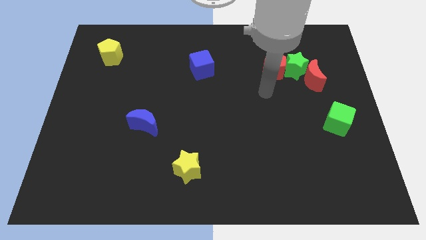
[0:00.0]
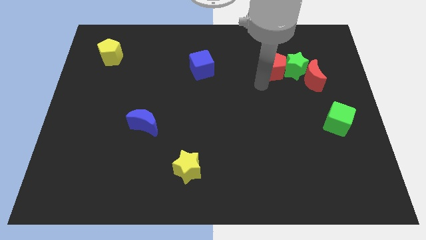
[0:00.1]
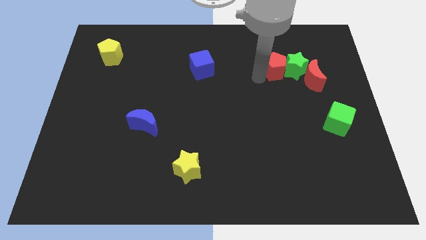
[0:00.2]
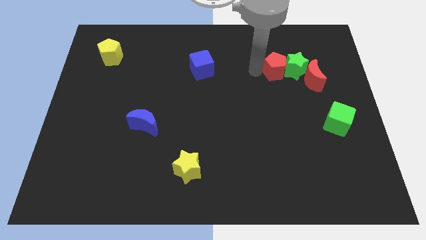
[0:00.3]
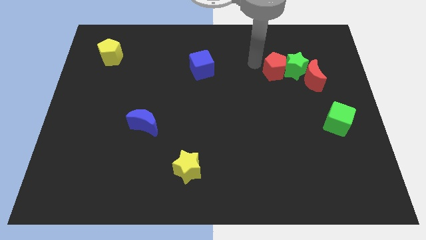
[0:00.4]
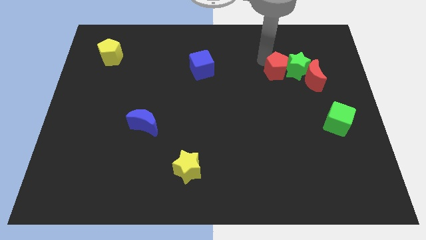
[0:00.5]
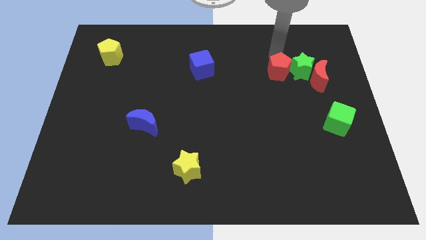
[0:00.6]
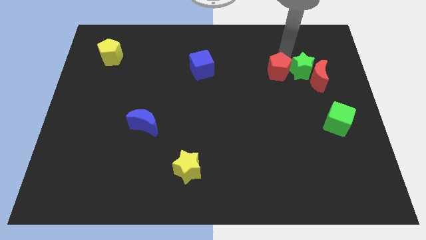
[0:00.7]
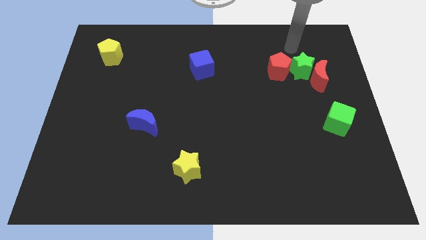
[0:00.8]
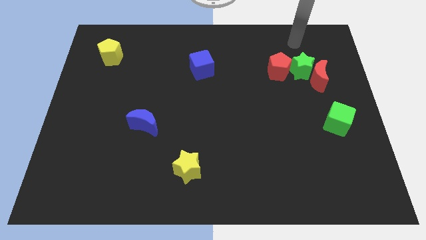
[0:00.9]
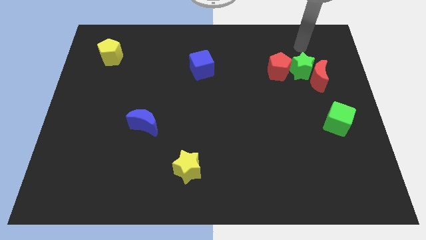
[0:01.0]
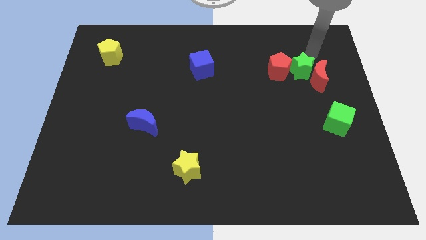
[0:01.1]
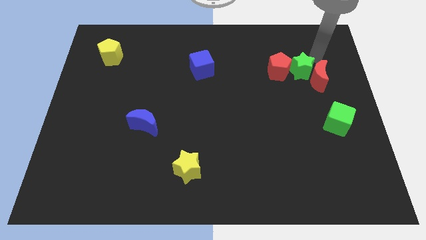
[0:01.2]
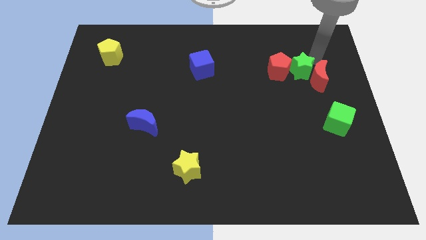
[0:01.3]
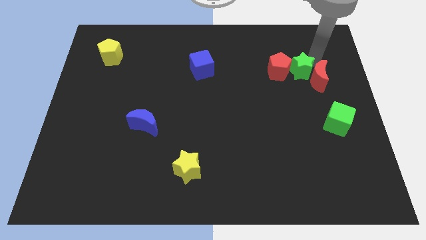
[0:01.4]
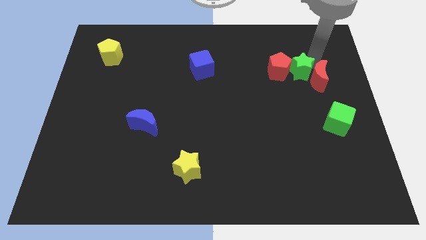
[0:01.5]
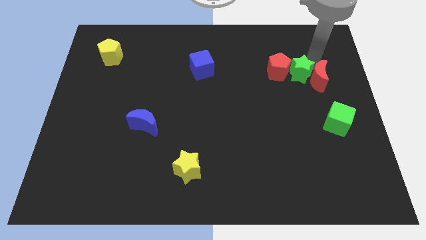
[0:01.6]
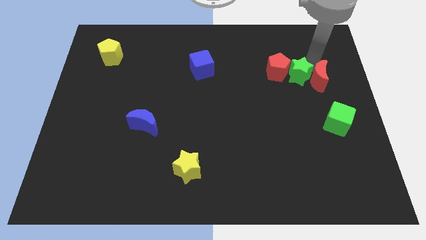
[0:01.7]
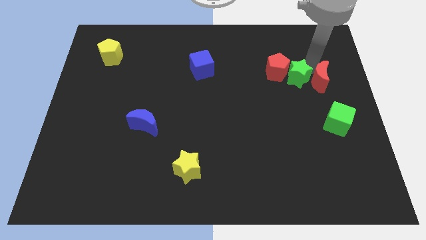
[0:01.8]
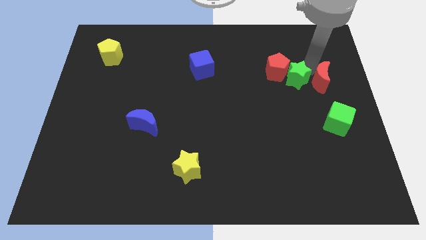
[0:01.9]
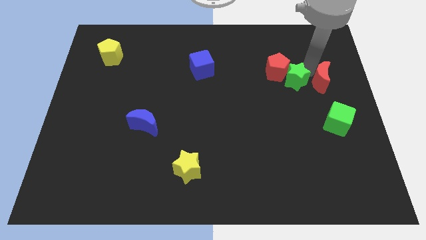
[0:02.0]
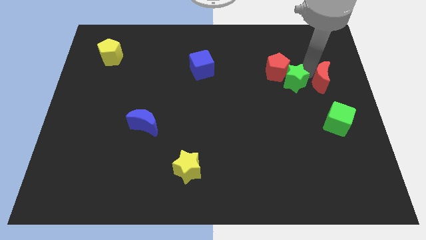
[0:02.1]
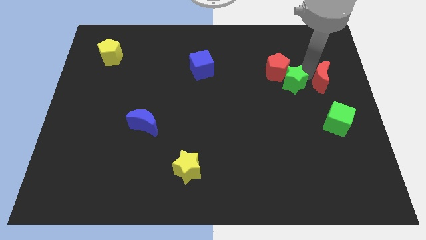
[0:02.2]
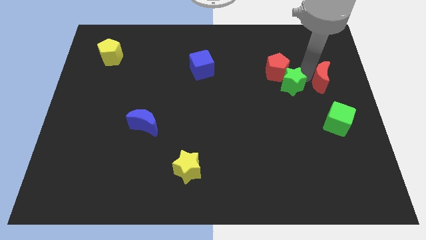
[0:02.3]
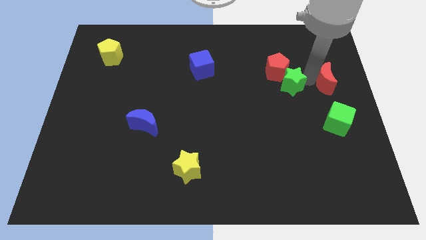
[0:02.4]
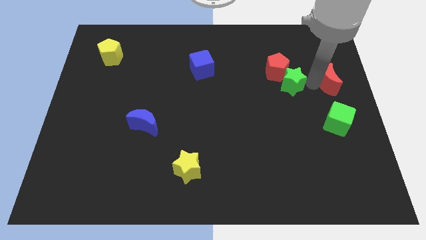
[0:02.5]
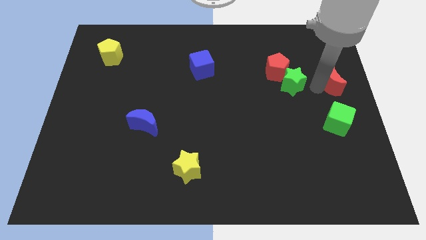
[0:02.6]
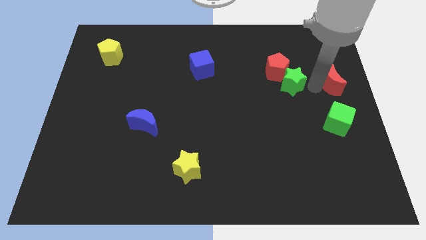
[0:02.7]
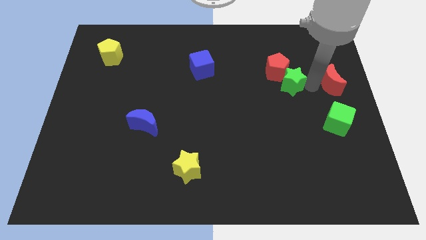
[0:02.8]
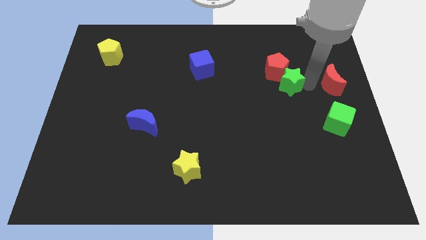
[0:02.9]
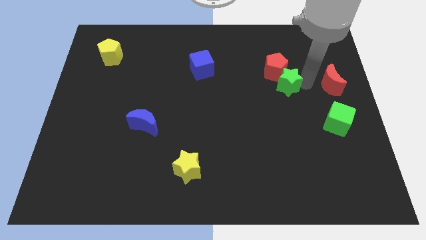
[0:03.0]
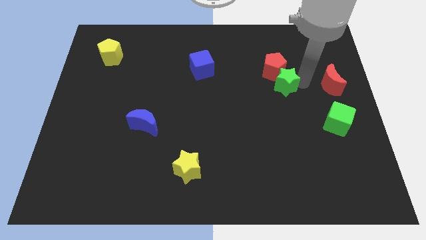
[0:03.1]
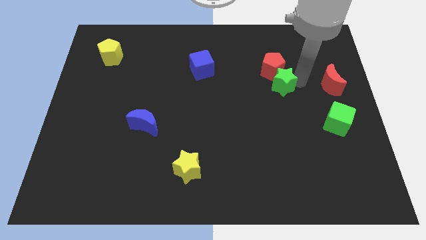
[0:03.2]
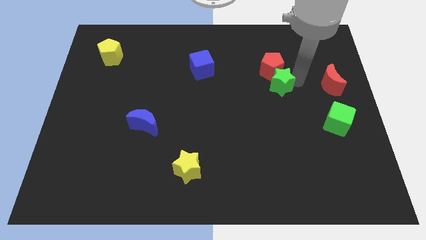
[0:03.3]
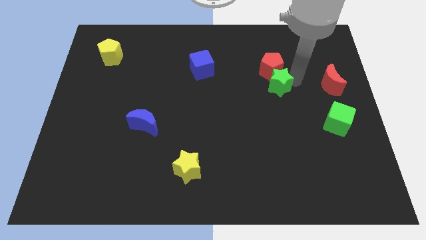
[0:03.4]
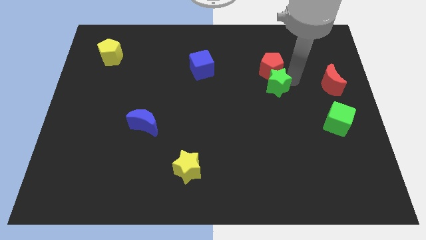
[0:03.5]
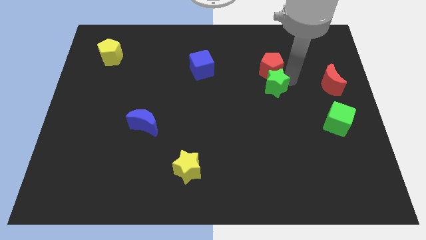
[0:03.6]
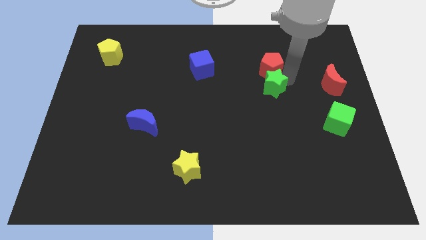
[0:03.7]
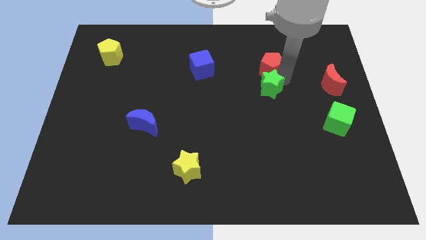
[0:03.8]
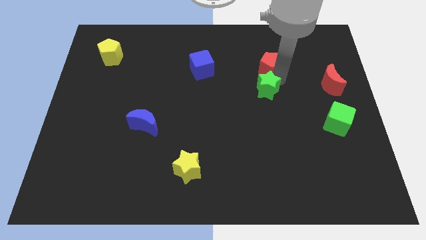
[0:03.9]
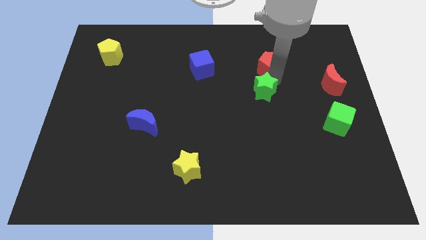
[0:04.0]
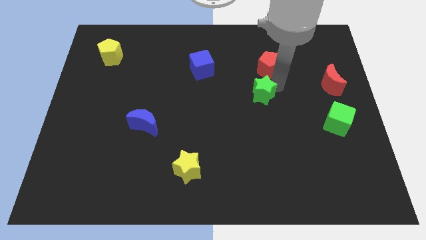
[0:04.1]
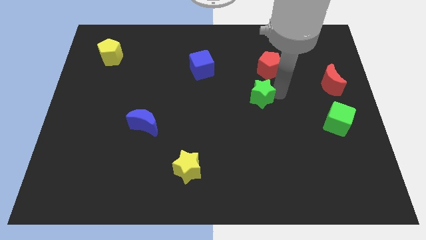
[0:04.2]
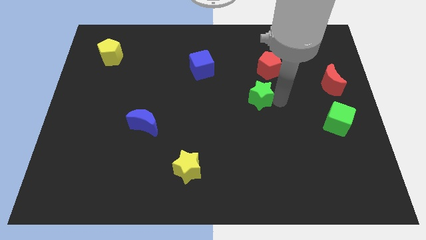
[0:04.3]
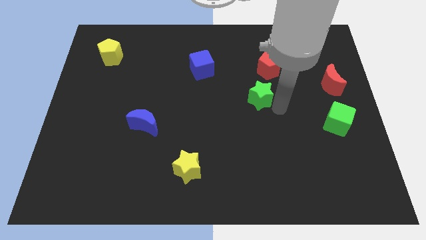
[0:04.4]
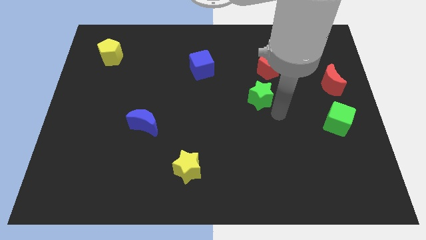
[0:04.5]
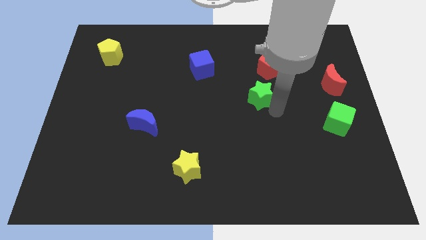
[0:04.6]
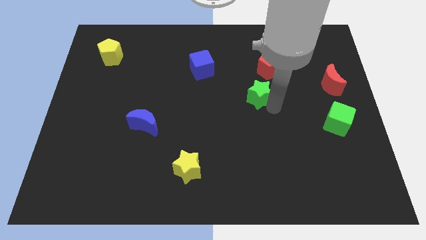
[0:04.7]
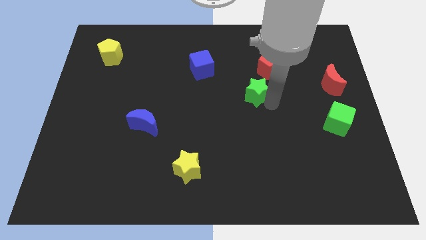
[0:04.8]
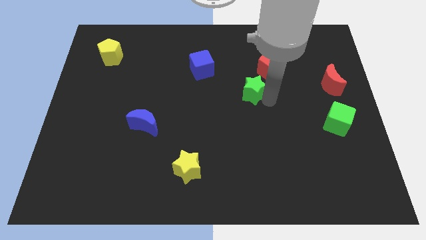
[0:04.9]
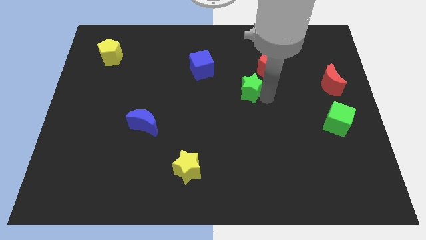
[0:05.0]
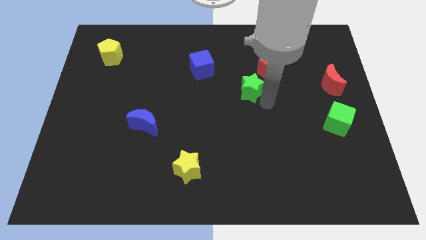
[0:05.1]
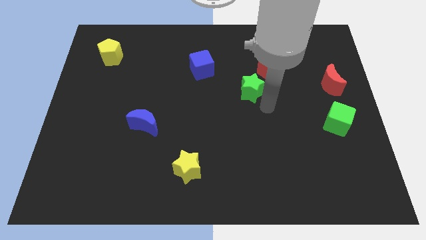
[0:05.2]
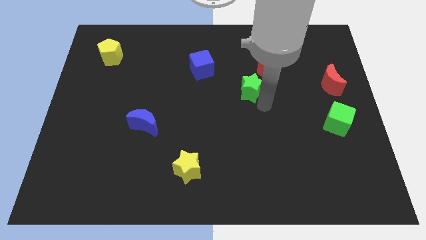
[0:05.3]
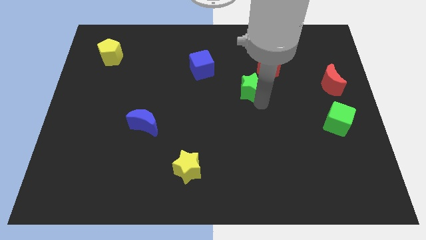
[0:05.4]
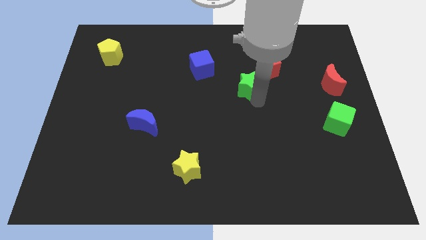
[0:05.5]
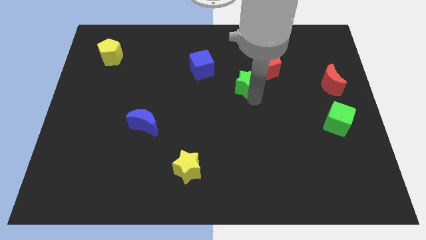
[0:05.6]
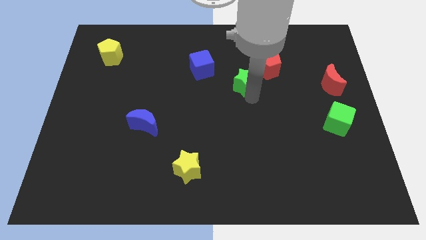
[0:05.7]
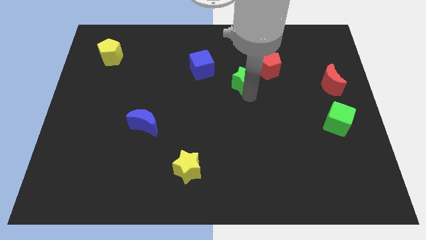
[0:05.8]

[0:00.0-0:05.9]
push the green star to the left of the red pentagon

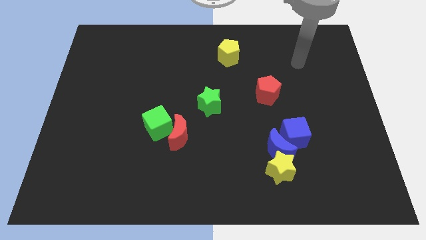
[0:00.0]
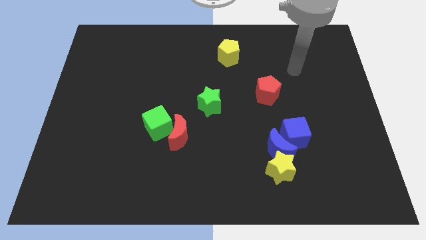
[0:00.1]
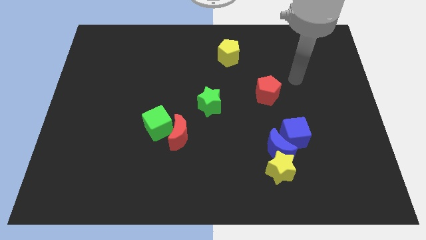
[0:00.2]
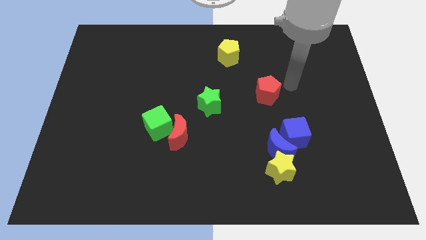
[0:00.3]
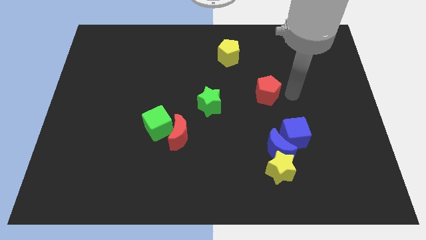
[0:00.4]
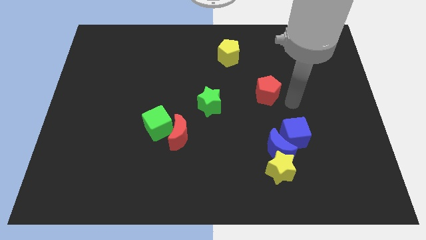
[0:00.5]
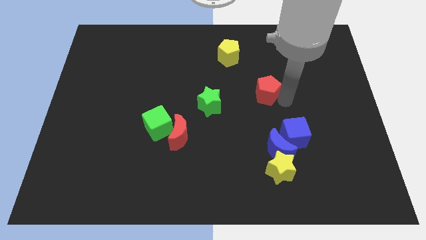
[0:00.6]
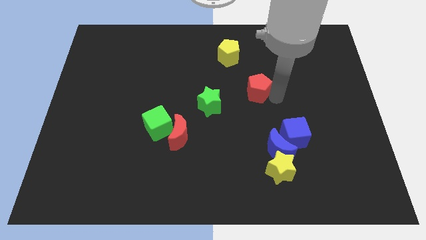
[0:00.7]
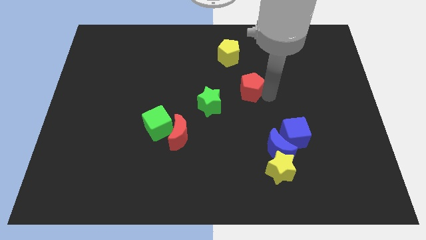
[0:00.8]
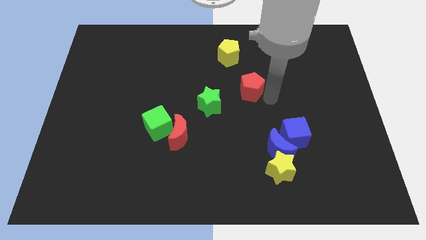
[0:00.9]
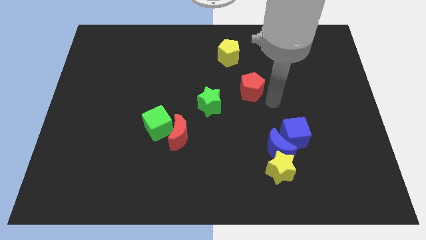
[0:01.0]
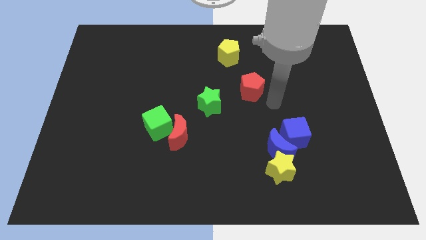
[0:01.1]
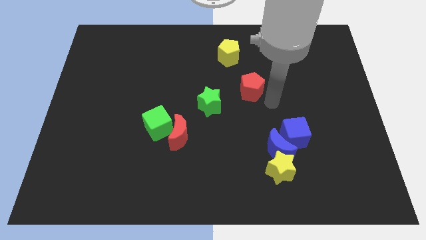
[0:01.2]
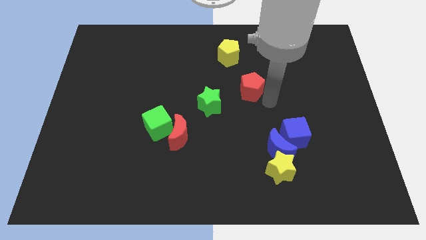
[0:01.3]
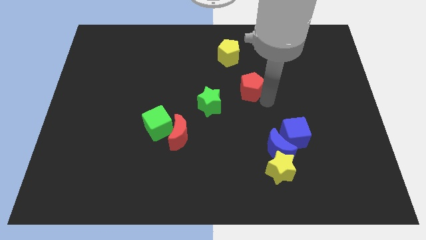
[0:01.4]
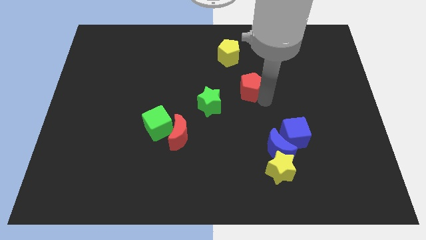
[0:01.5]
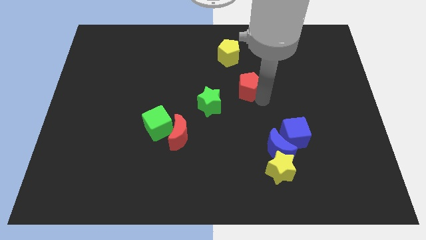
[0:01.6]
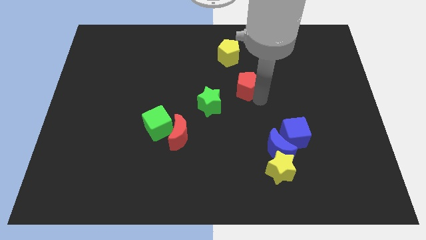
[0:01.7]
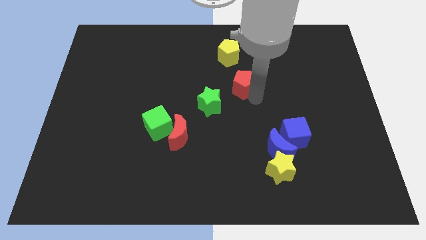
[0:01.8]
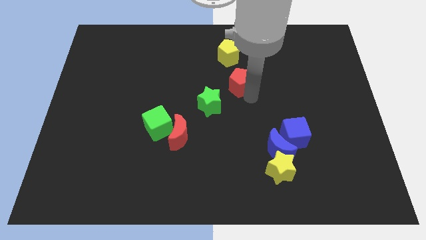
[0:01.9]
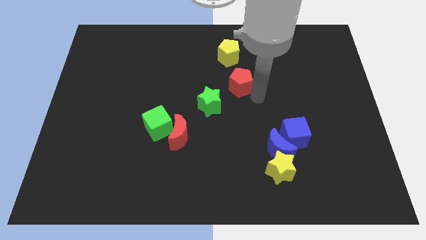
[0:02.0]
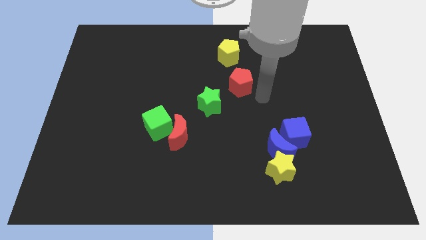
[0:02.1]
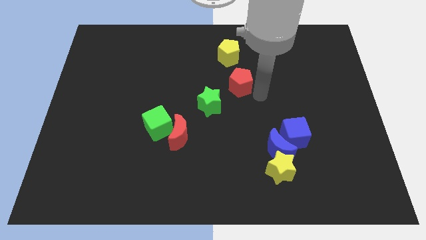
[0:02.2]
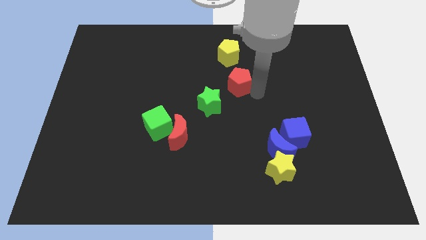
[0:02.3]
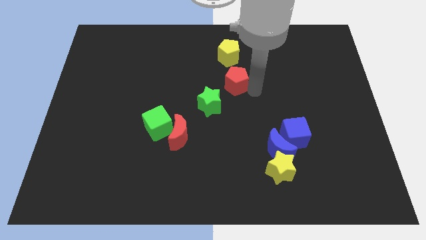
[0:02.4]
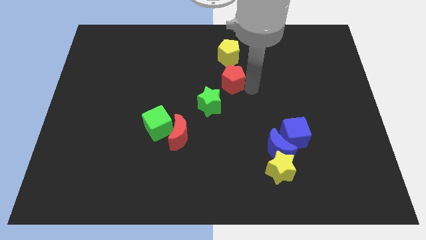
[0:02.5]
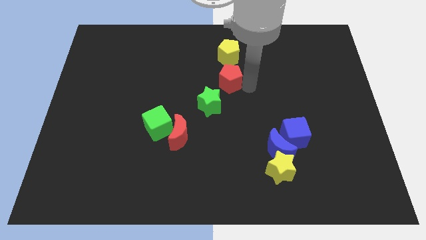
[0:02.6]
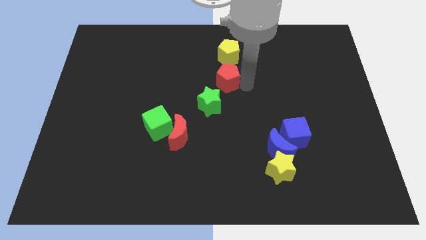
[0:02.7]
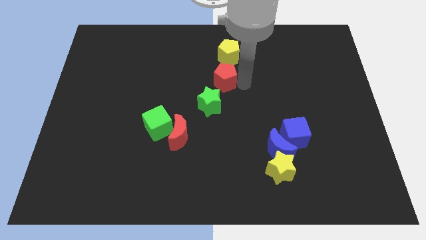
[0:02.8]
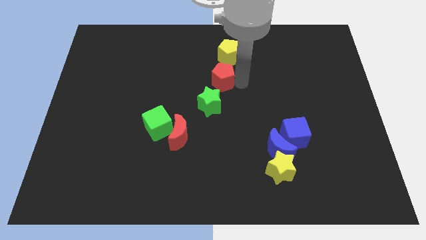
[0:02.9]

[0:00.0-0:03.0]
put the red pentagon to the bottom left side of the yellow pentagon
